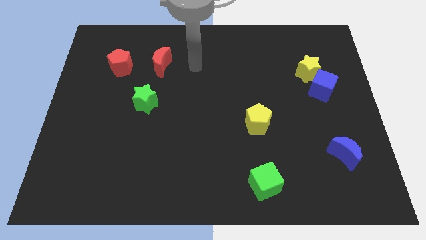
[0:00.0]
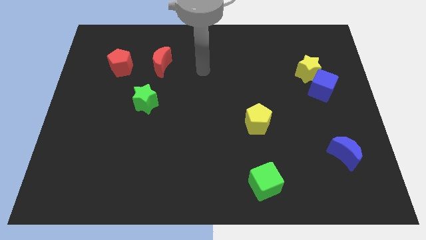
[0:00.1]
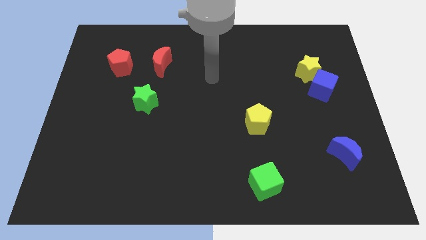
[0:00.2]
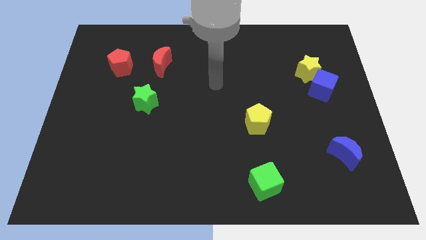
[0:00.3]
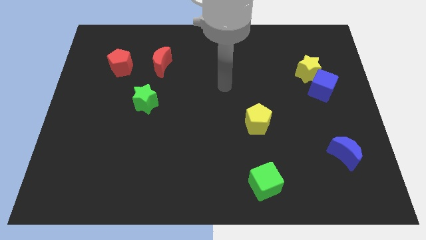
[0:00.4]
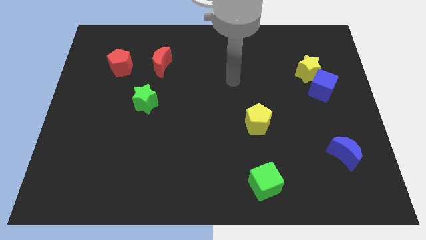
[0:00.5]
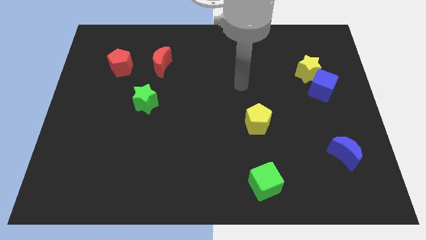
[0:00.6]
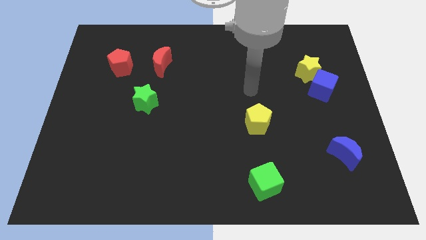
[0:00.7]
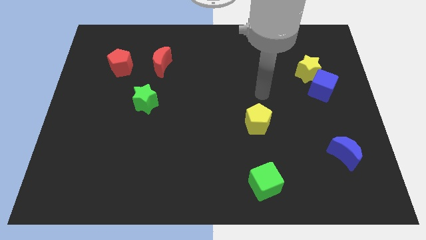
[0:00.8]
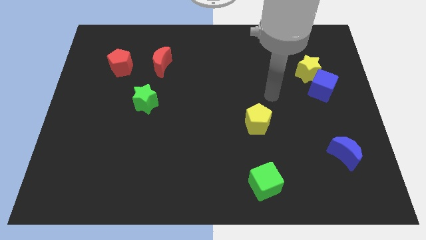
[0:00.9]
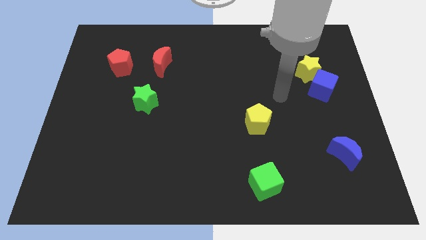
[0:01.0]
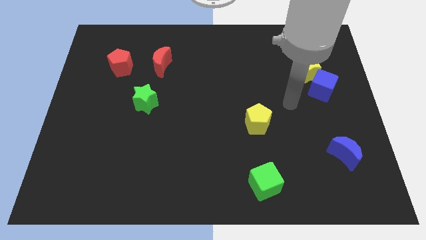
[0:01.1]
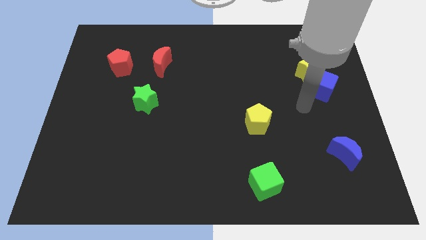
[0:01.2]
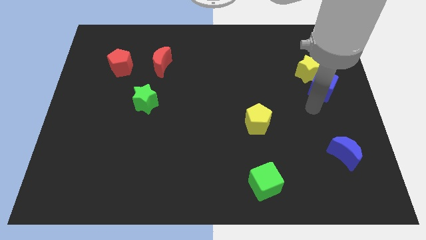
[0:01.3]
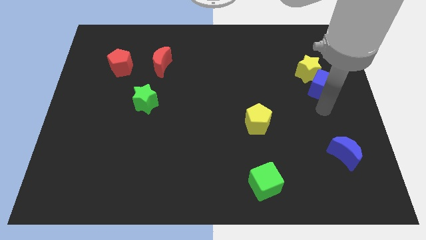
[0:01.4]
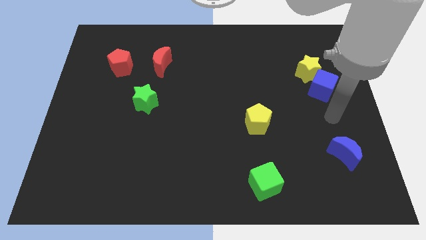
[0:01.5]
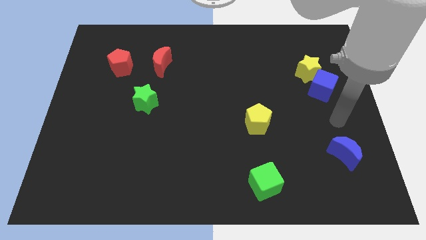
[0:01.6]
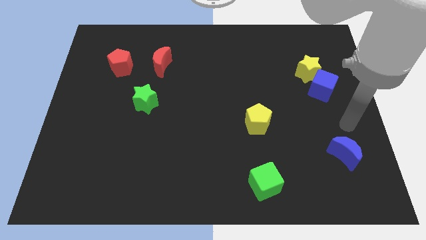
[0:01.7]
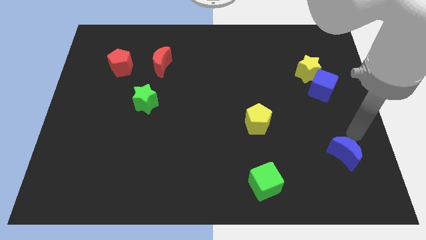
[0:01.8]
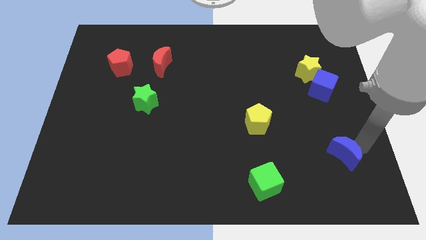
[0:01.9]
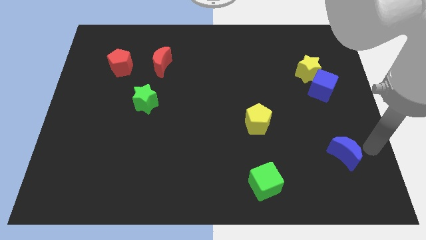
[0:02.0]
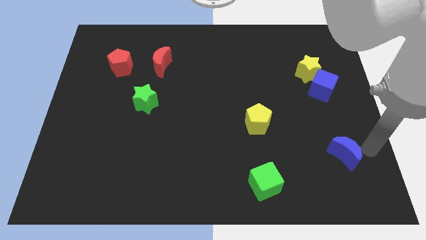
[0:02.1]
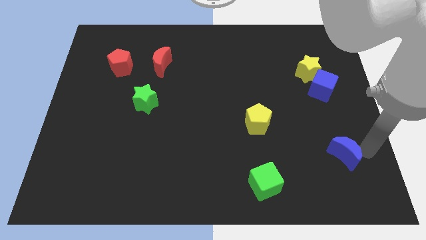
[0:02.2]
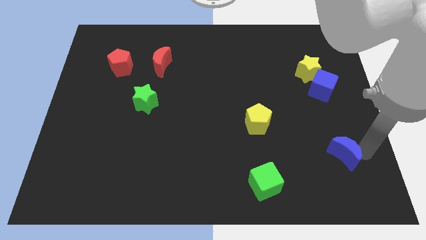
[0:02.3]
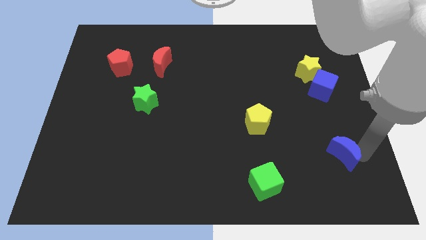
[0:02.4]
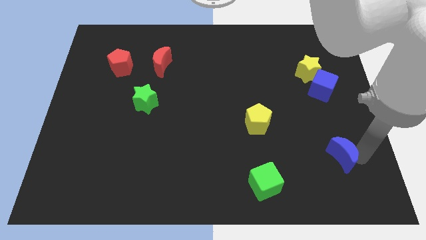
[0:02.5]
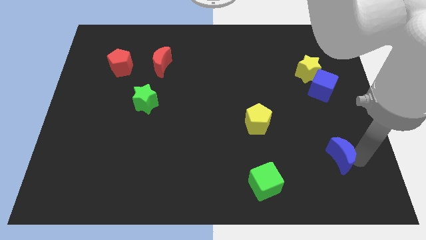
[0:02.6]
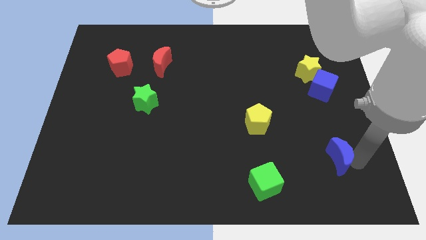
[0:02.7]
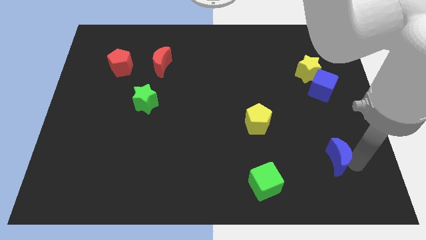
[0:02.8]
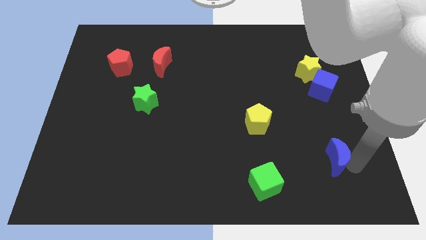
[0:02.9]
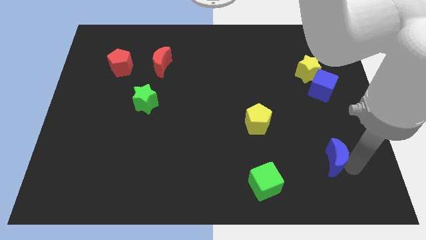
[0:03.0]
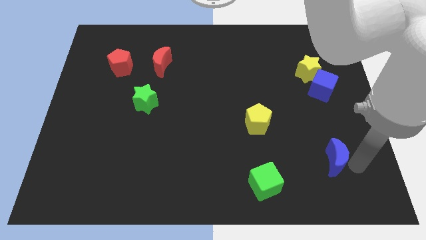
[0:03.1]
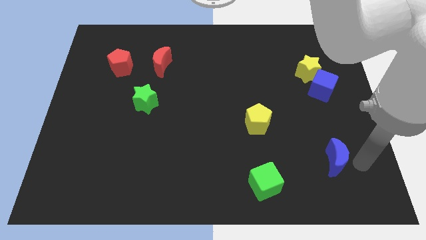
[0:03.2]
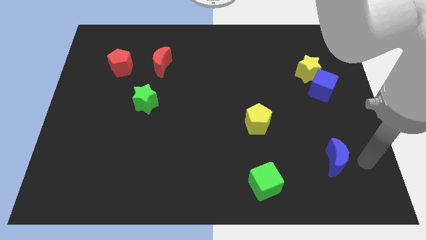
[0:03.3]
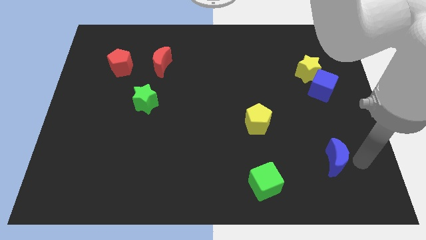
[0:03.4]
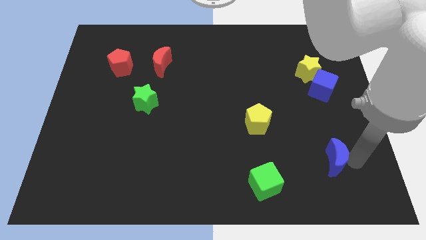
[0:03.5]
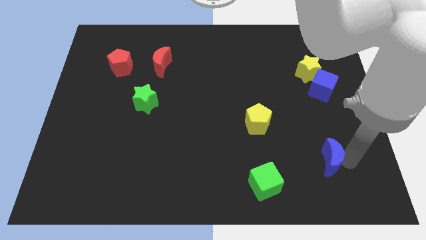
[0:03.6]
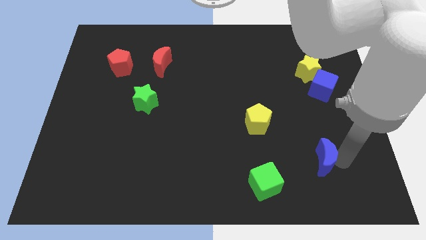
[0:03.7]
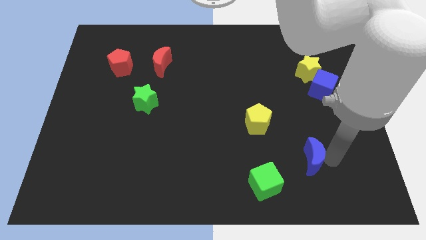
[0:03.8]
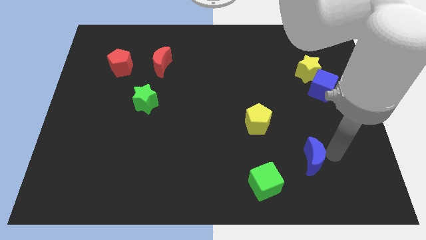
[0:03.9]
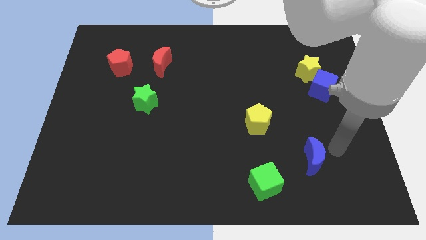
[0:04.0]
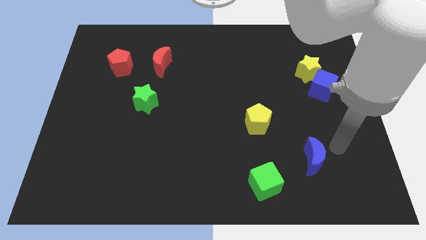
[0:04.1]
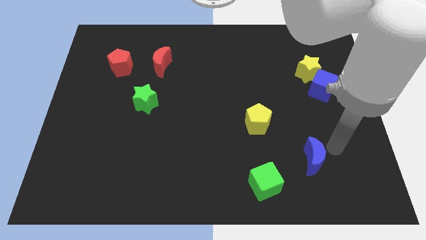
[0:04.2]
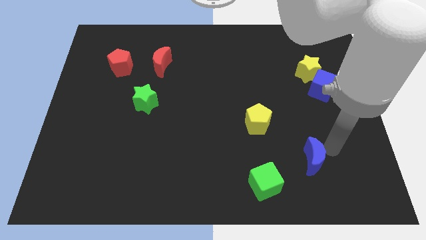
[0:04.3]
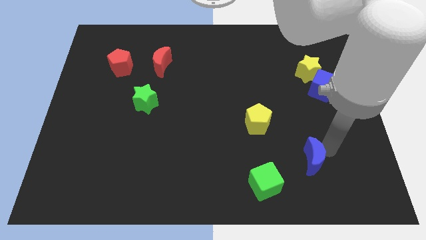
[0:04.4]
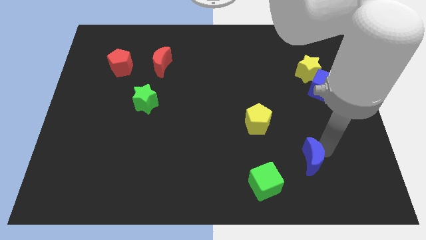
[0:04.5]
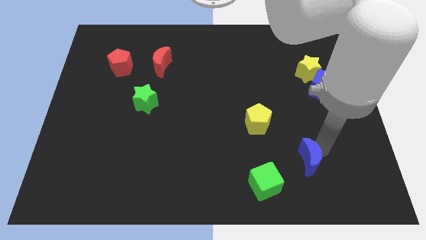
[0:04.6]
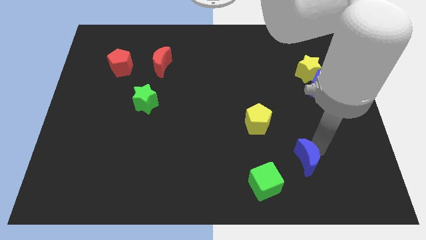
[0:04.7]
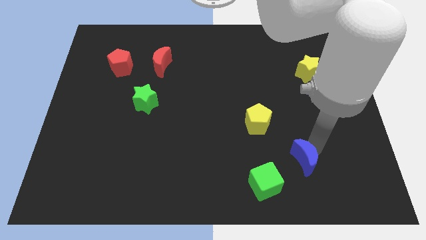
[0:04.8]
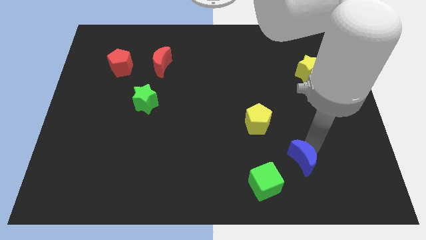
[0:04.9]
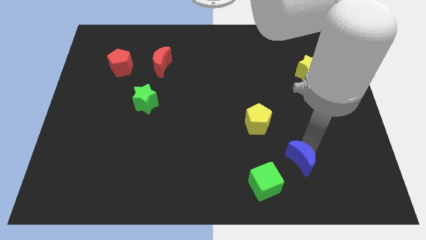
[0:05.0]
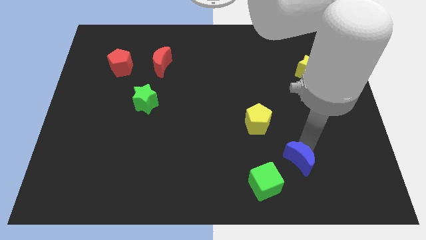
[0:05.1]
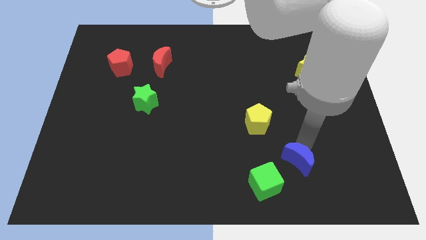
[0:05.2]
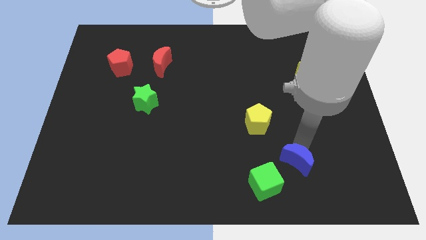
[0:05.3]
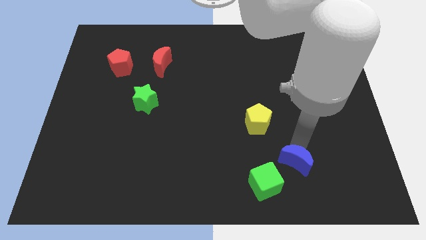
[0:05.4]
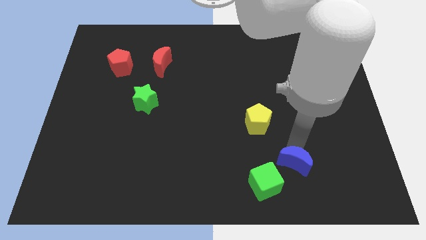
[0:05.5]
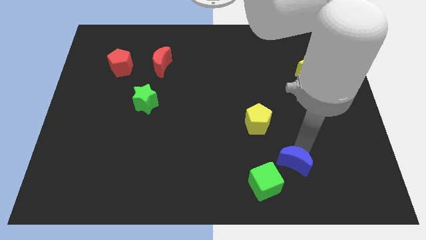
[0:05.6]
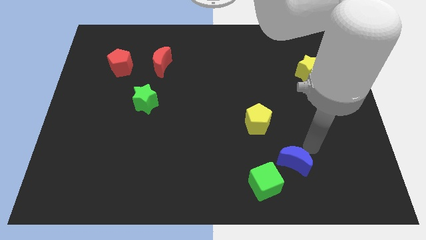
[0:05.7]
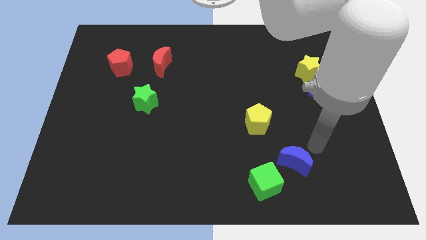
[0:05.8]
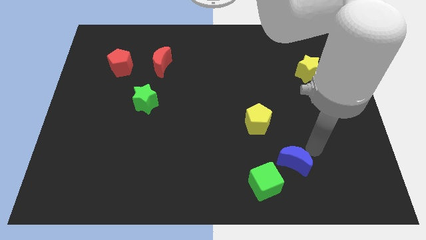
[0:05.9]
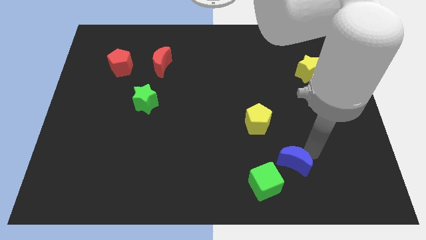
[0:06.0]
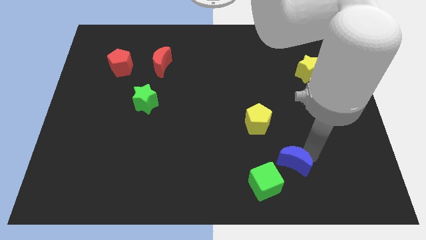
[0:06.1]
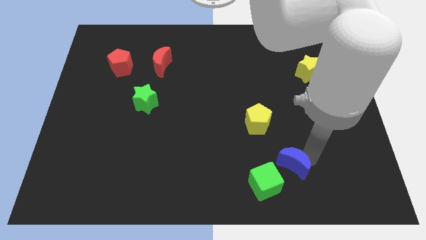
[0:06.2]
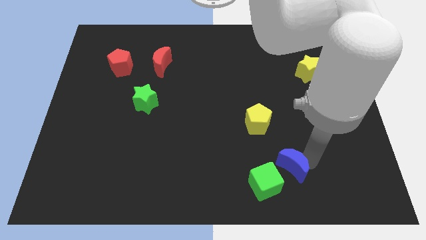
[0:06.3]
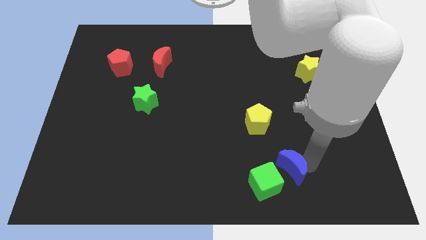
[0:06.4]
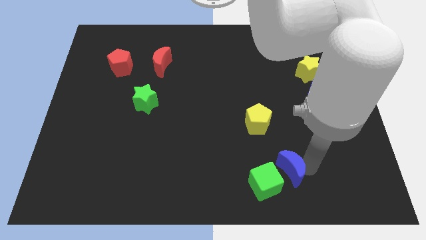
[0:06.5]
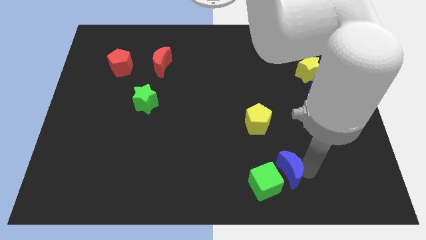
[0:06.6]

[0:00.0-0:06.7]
put the blue moon towards the green cube

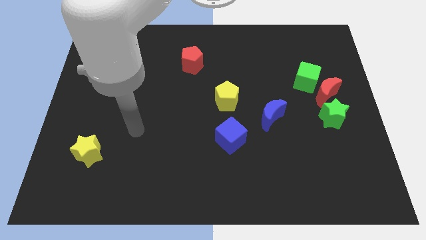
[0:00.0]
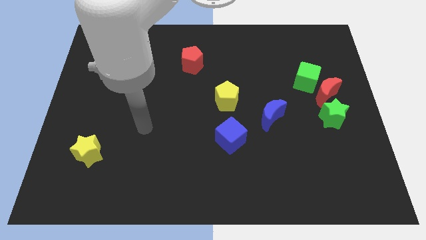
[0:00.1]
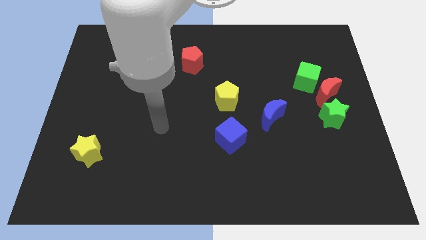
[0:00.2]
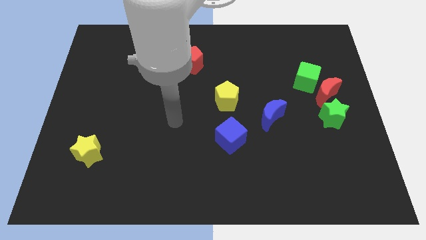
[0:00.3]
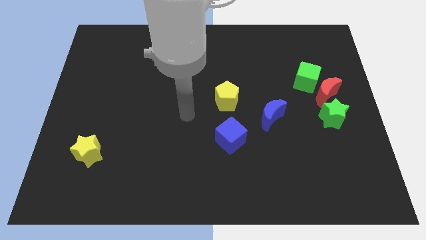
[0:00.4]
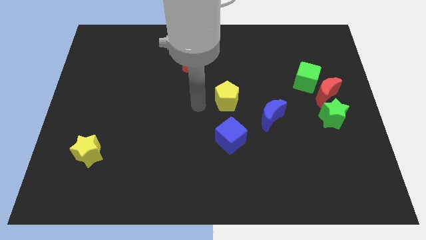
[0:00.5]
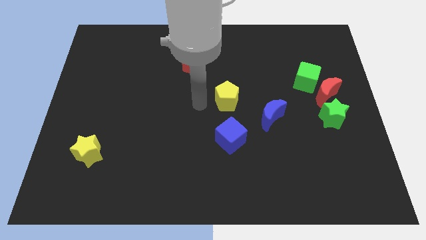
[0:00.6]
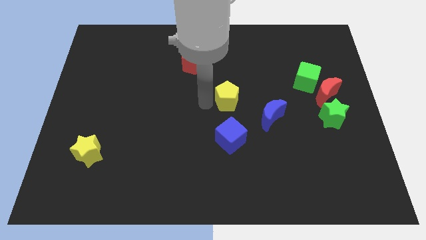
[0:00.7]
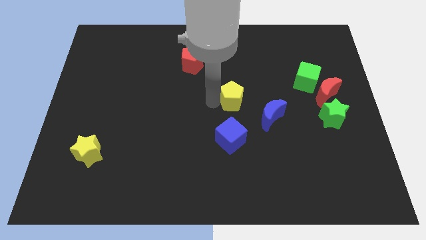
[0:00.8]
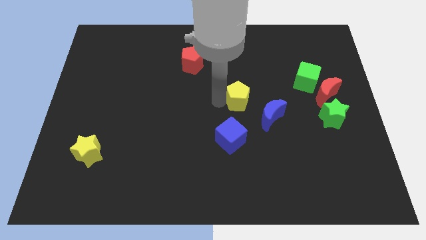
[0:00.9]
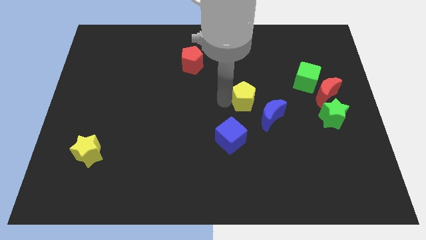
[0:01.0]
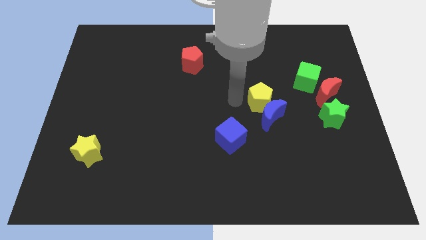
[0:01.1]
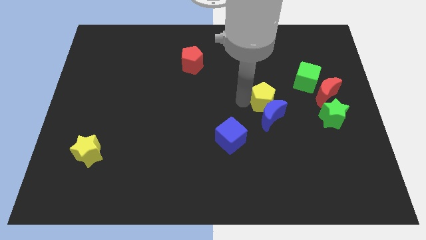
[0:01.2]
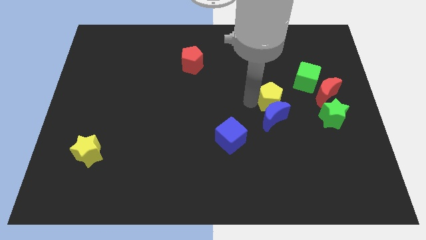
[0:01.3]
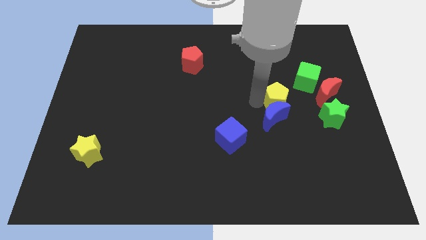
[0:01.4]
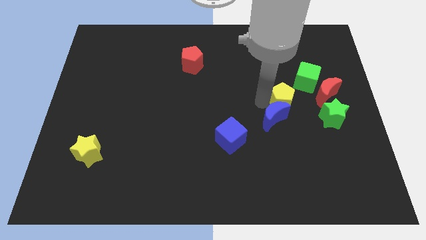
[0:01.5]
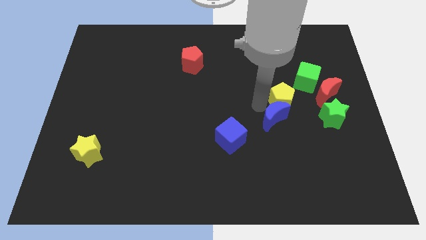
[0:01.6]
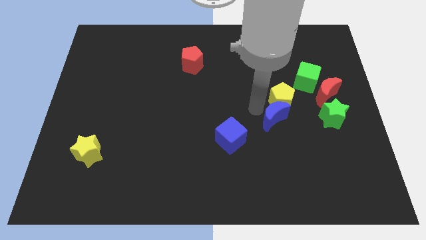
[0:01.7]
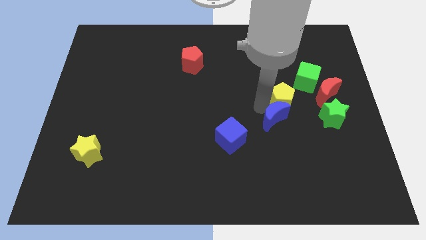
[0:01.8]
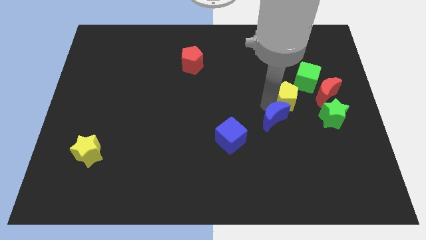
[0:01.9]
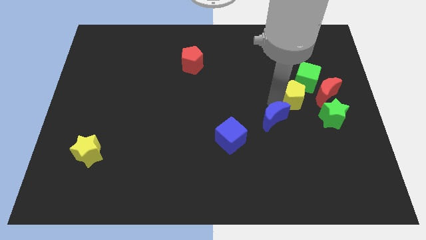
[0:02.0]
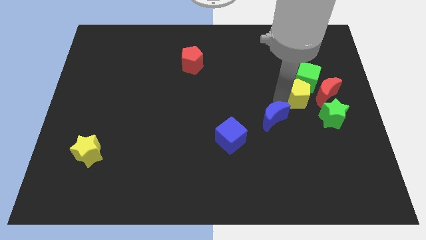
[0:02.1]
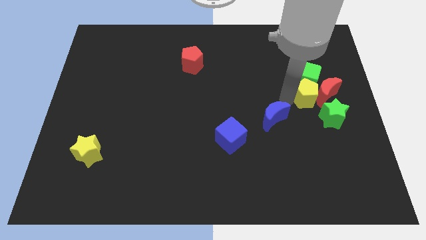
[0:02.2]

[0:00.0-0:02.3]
slide the yellow pentagon towards the red moon
